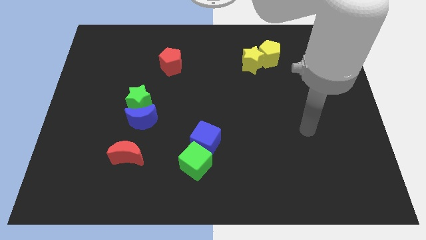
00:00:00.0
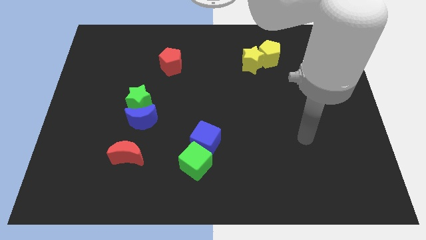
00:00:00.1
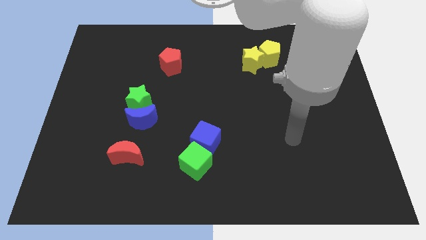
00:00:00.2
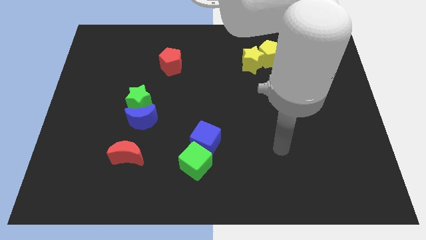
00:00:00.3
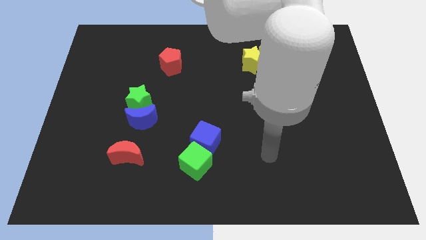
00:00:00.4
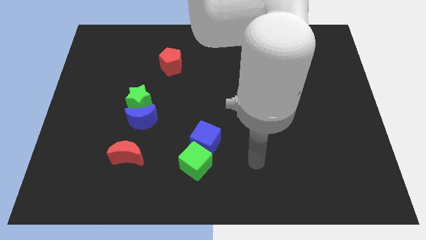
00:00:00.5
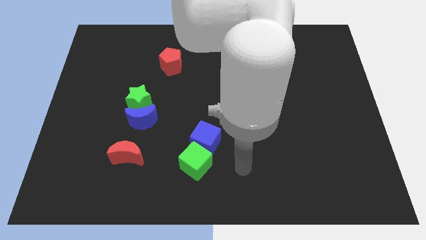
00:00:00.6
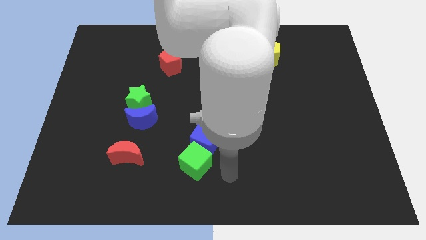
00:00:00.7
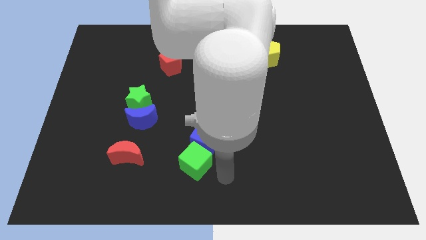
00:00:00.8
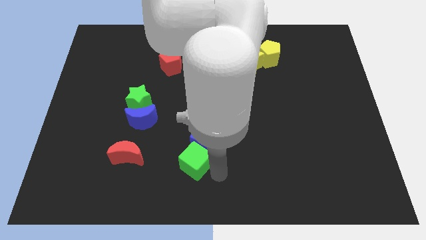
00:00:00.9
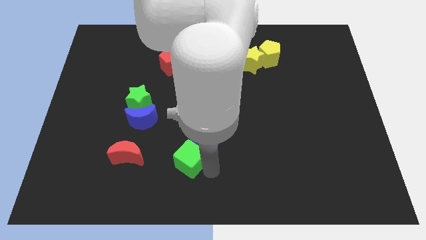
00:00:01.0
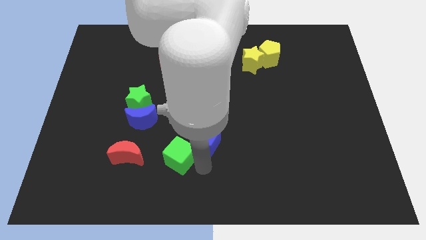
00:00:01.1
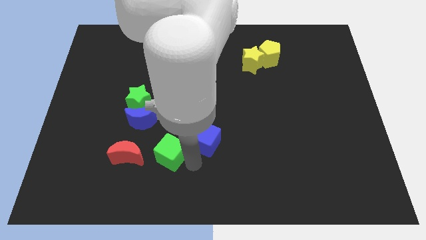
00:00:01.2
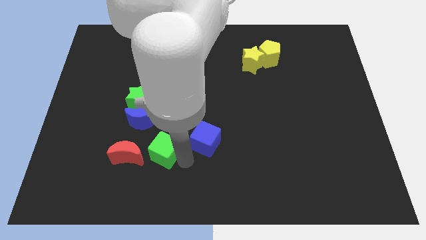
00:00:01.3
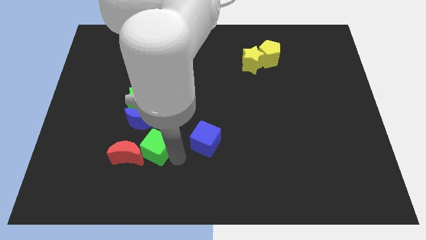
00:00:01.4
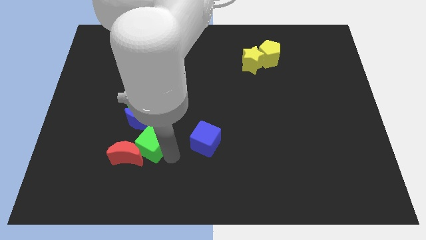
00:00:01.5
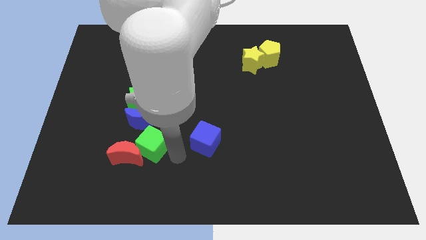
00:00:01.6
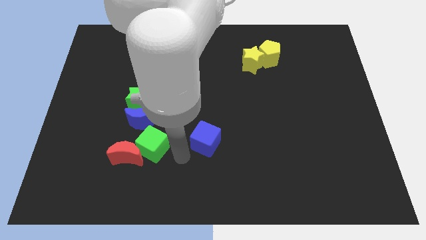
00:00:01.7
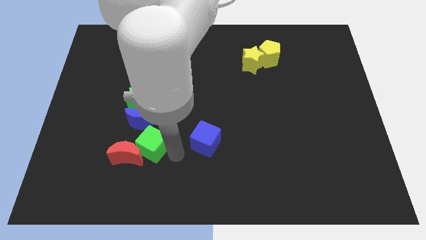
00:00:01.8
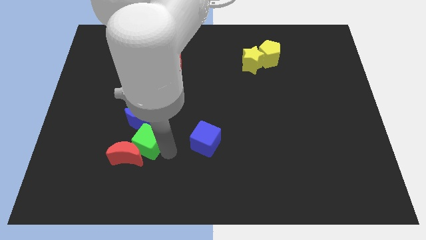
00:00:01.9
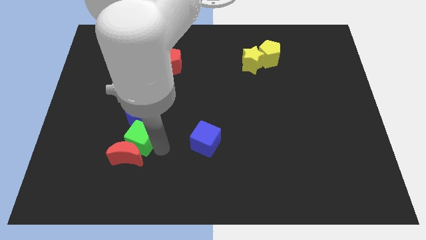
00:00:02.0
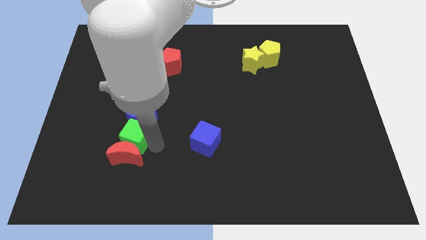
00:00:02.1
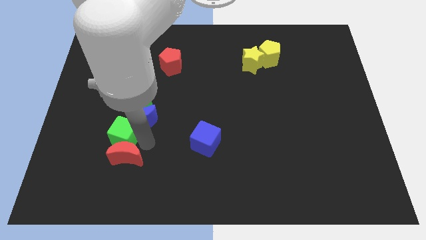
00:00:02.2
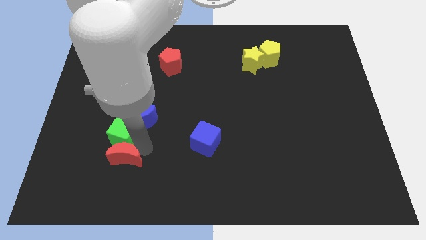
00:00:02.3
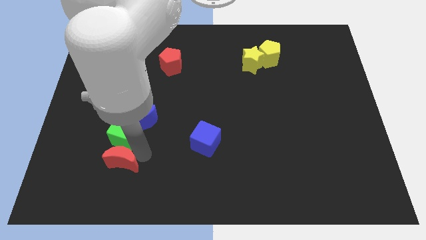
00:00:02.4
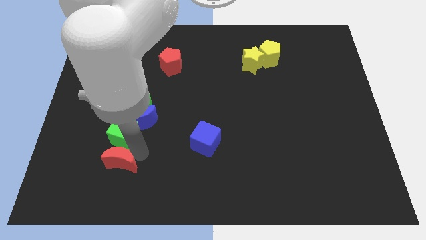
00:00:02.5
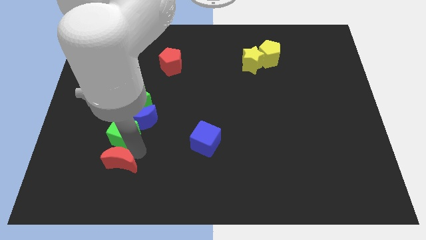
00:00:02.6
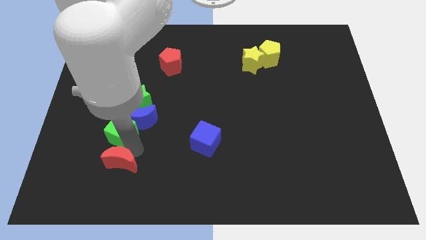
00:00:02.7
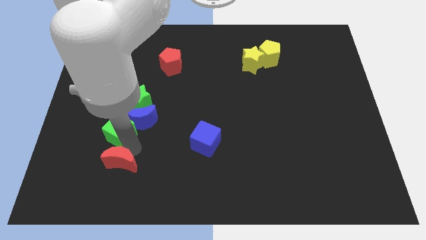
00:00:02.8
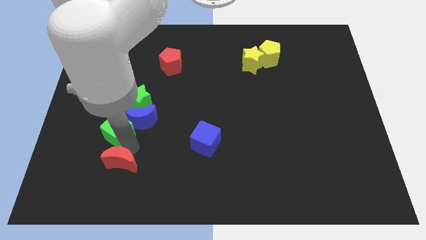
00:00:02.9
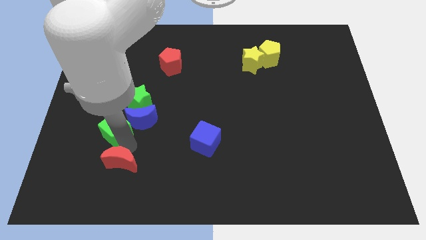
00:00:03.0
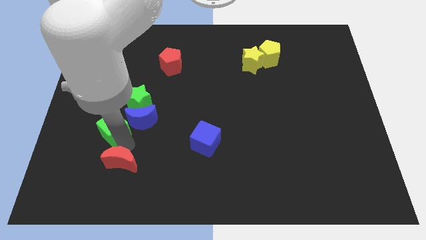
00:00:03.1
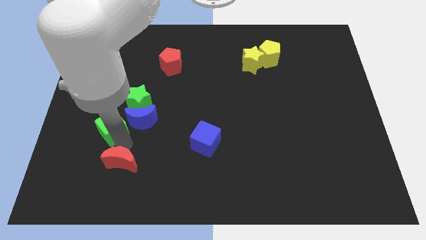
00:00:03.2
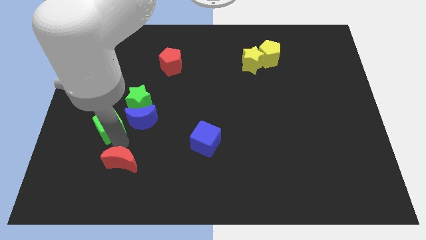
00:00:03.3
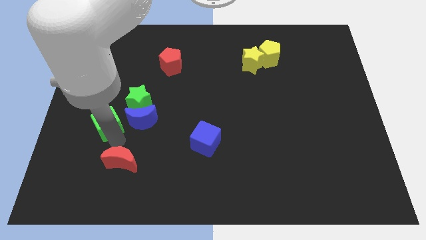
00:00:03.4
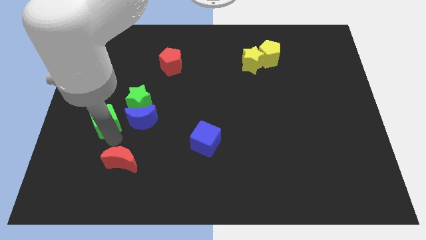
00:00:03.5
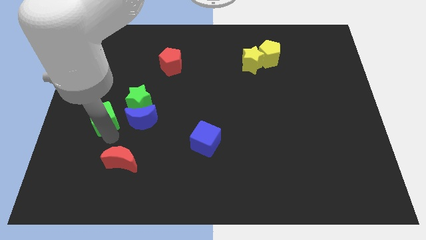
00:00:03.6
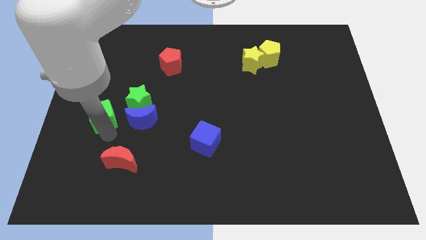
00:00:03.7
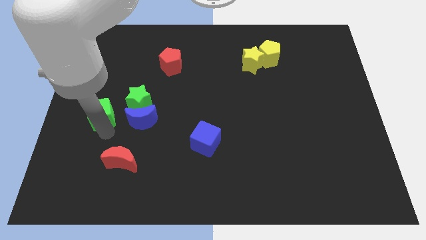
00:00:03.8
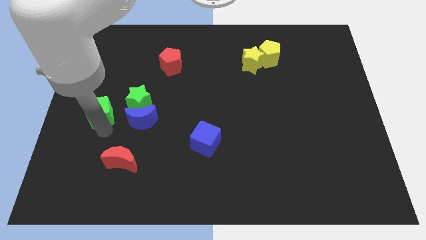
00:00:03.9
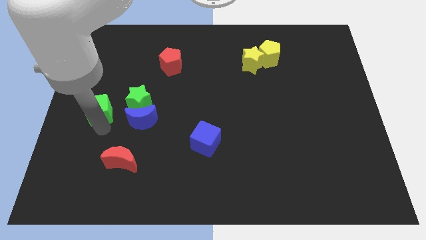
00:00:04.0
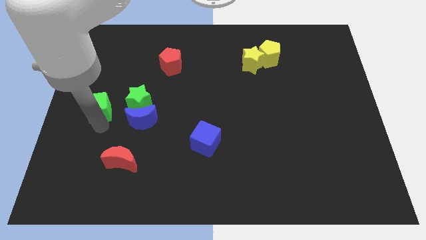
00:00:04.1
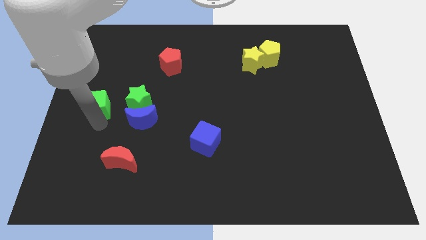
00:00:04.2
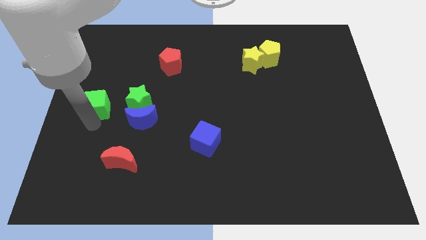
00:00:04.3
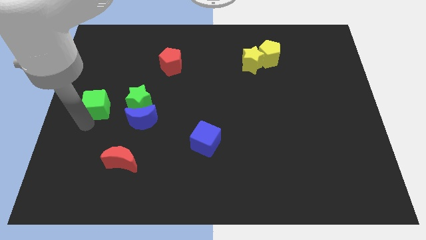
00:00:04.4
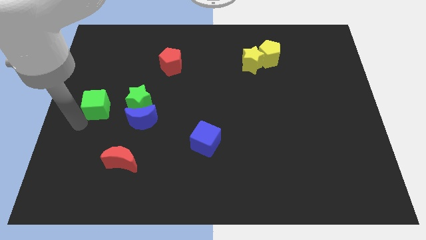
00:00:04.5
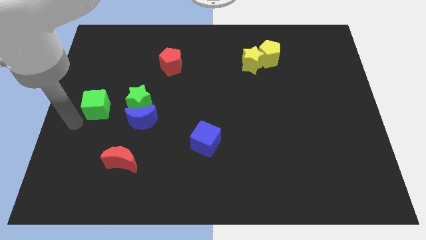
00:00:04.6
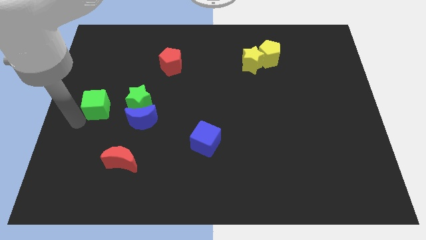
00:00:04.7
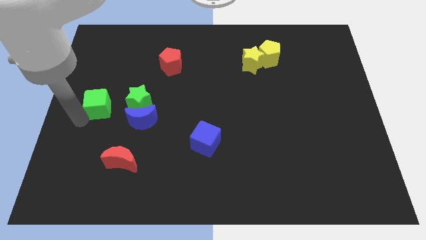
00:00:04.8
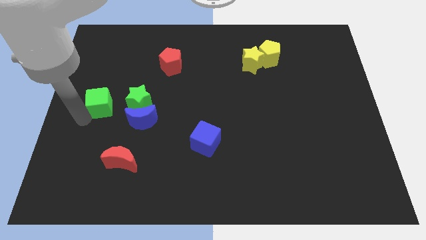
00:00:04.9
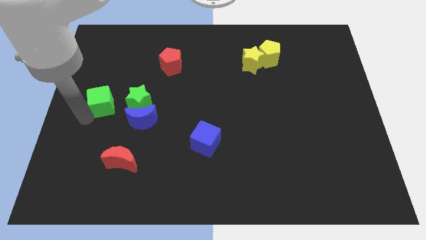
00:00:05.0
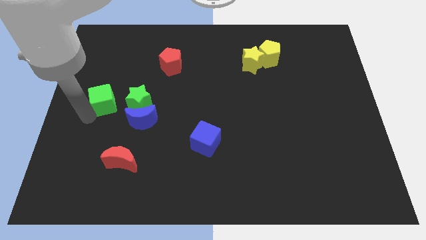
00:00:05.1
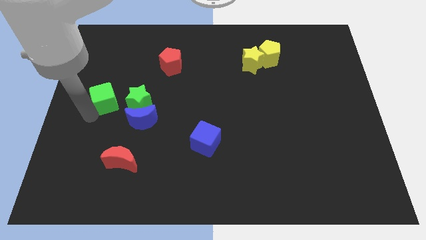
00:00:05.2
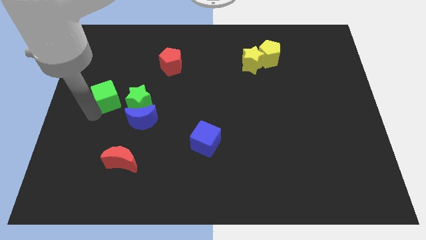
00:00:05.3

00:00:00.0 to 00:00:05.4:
put the green cube diagonally up and to the left of the green star

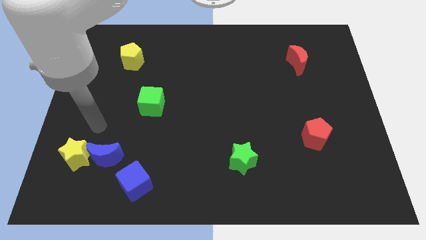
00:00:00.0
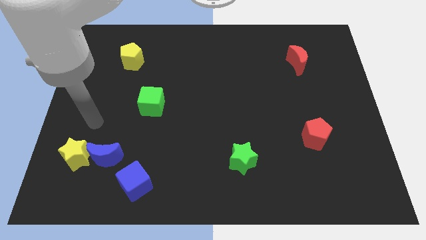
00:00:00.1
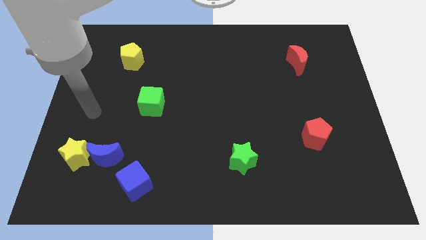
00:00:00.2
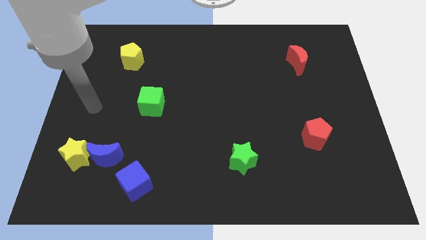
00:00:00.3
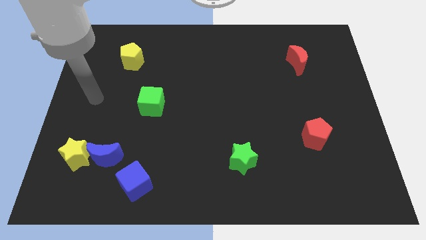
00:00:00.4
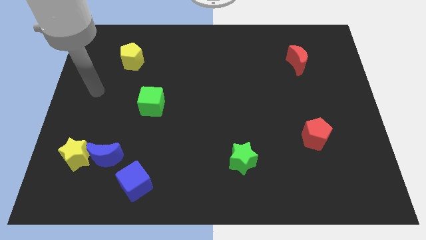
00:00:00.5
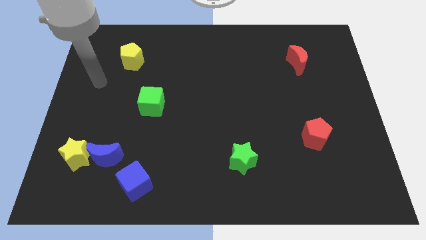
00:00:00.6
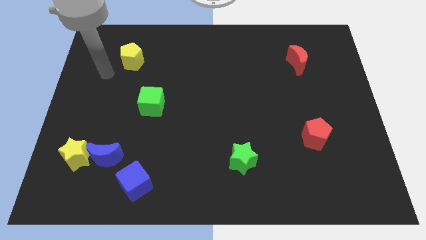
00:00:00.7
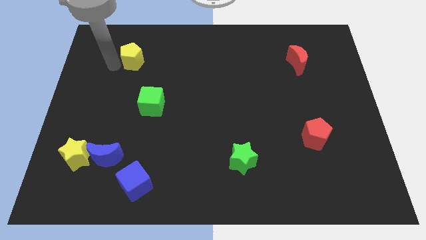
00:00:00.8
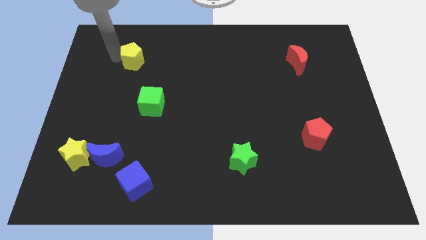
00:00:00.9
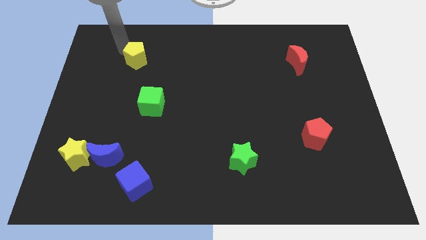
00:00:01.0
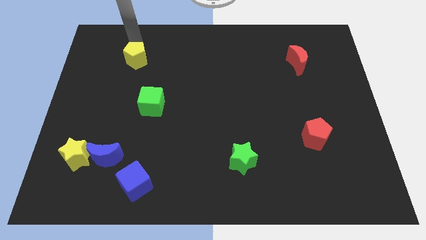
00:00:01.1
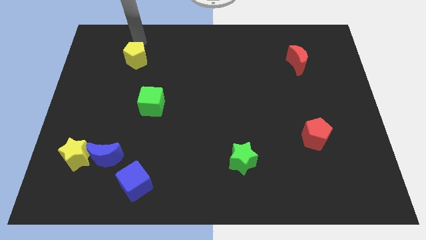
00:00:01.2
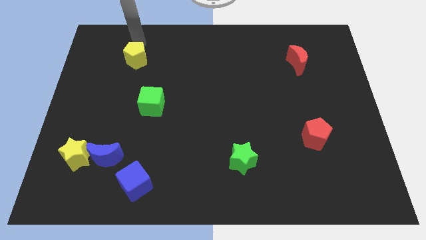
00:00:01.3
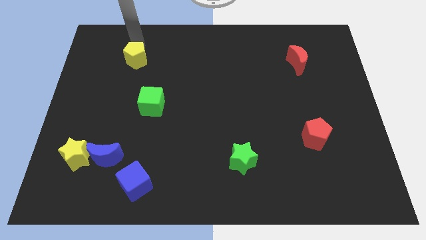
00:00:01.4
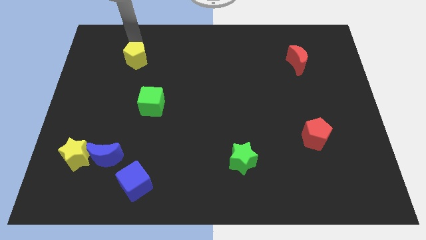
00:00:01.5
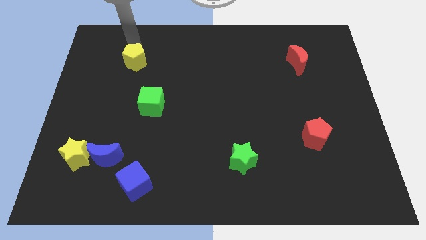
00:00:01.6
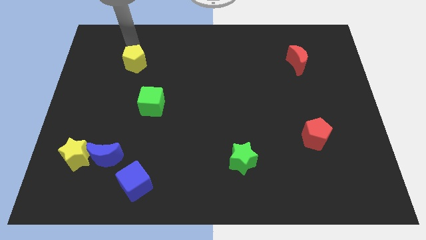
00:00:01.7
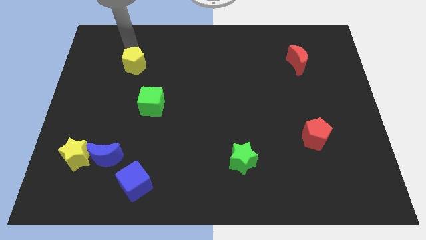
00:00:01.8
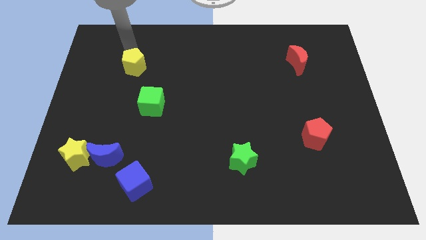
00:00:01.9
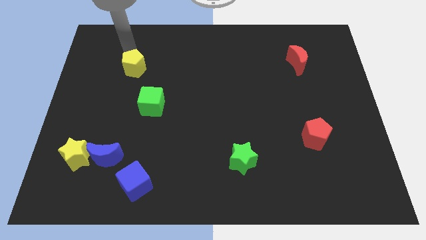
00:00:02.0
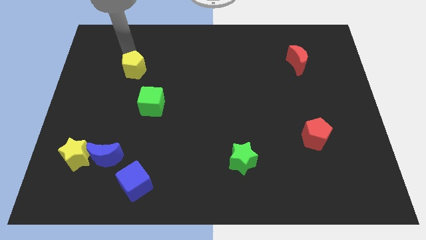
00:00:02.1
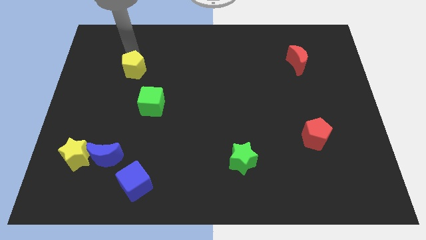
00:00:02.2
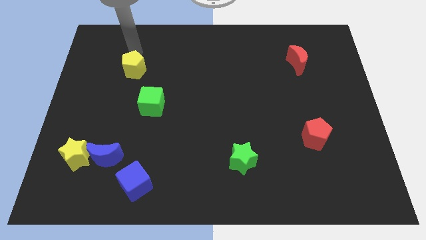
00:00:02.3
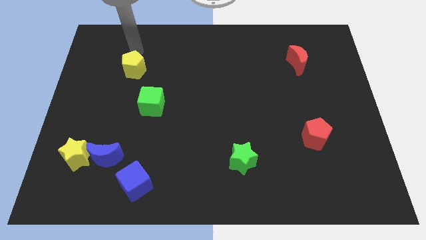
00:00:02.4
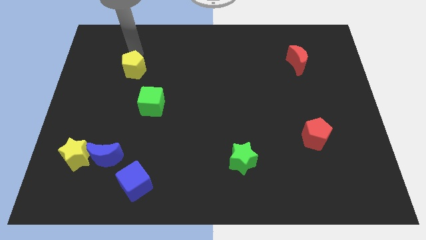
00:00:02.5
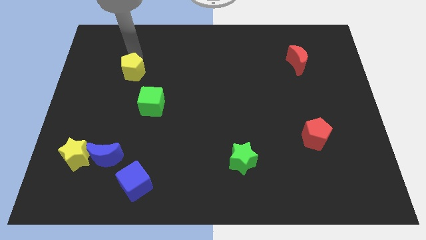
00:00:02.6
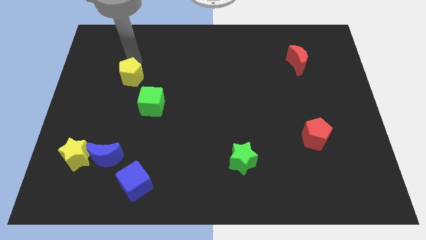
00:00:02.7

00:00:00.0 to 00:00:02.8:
move the yellow pentagon to the top left side of the green cube
